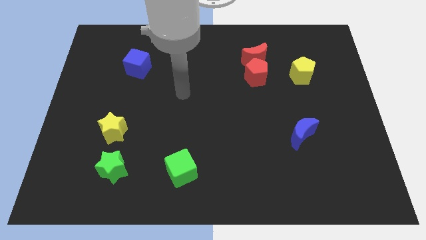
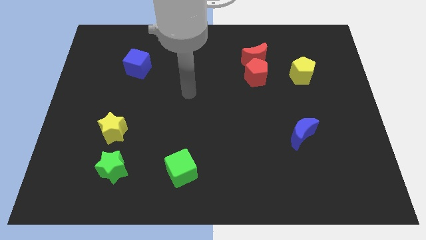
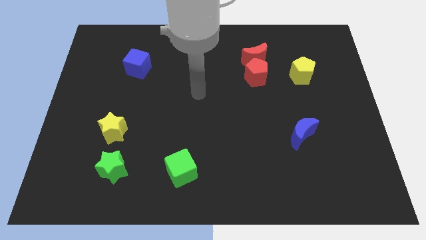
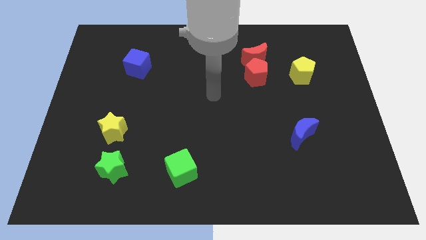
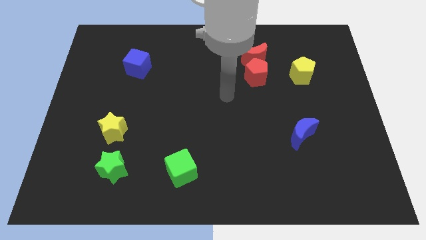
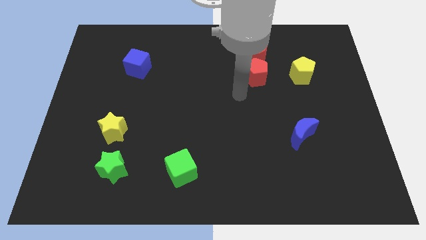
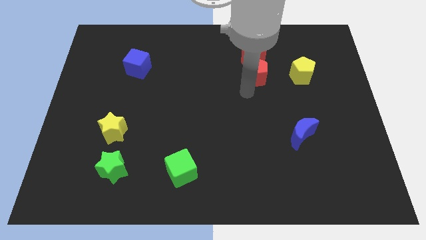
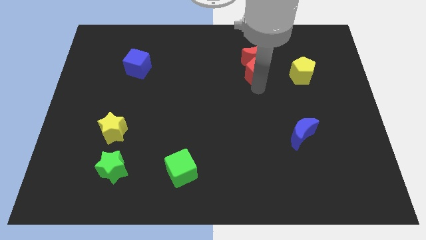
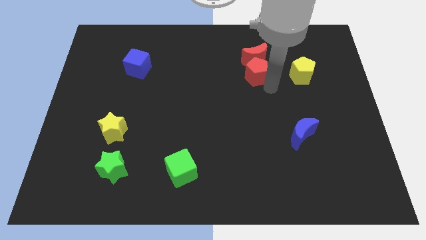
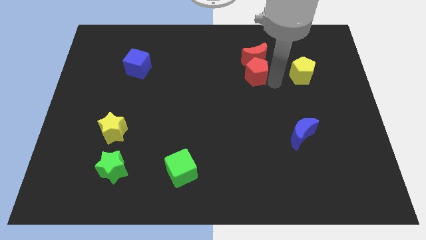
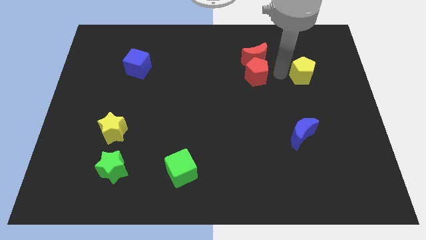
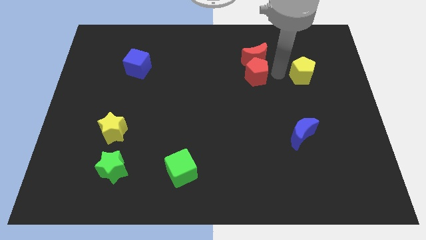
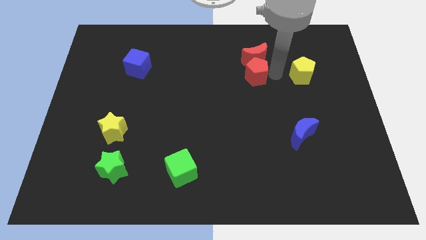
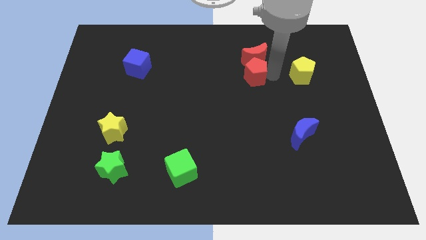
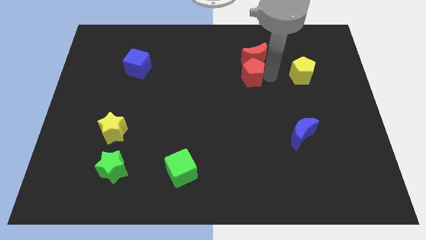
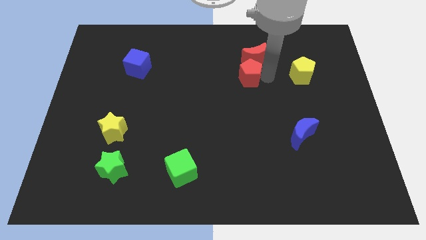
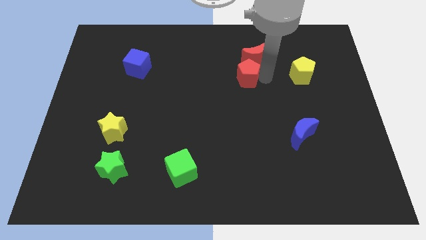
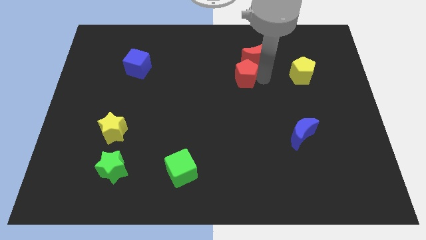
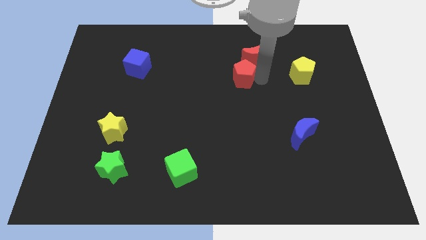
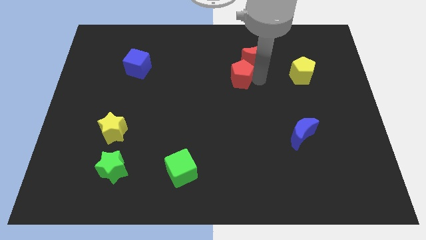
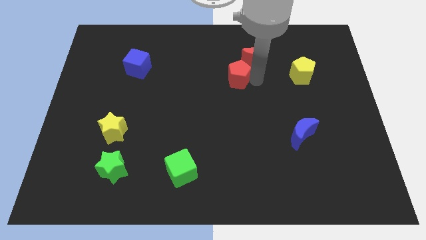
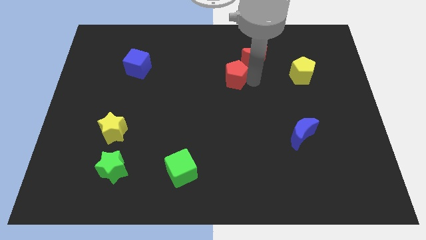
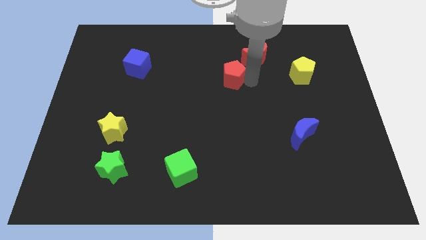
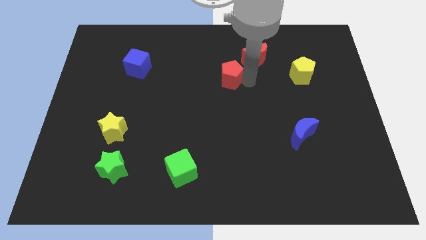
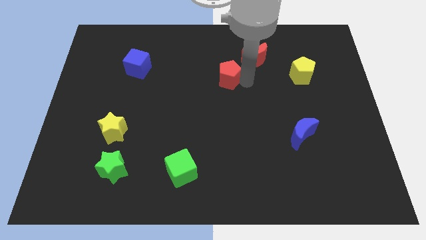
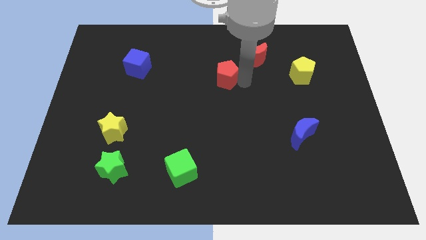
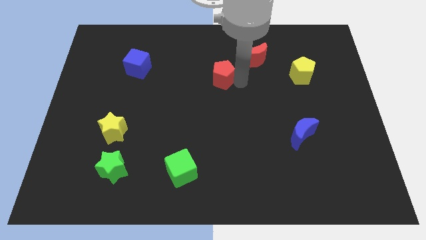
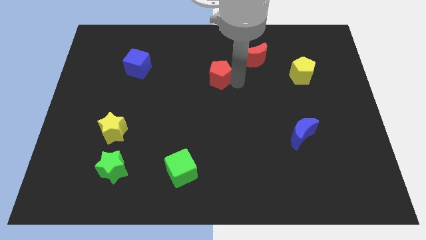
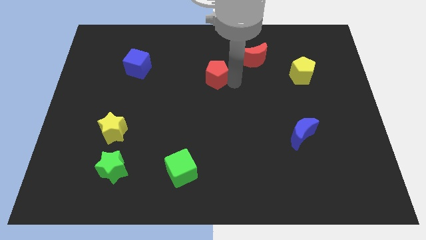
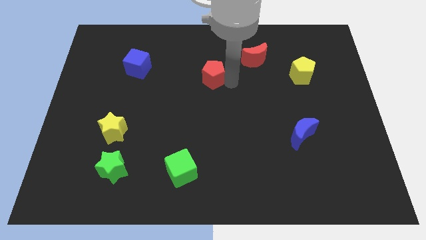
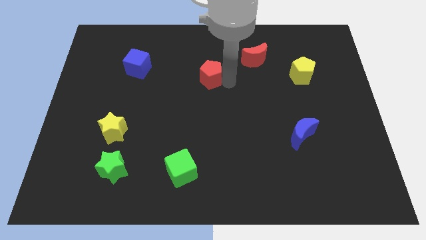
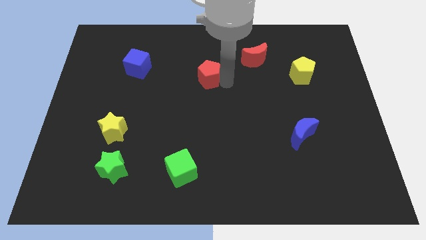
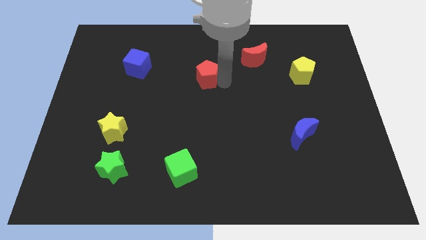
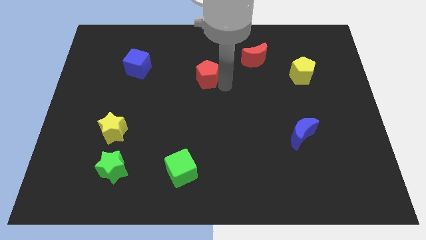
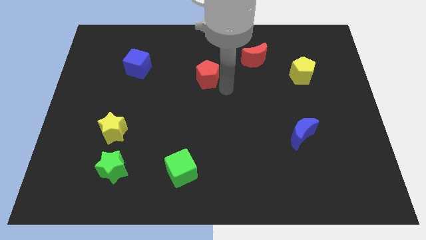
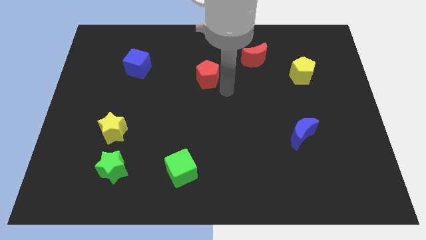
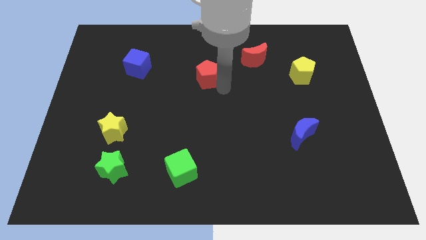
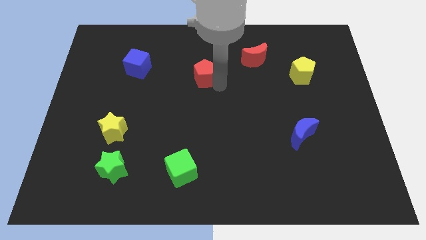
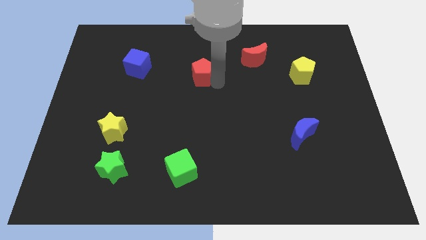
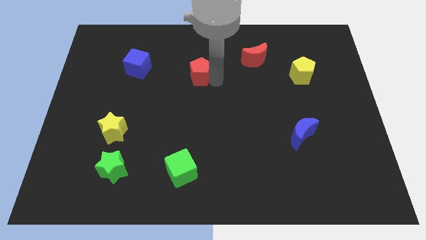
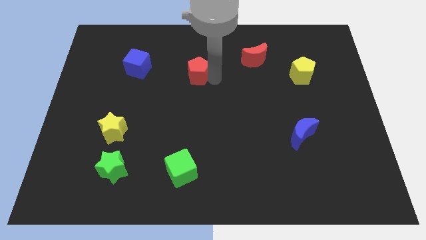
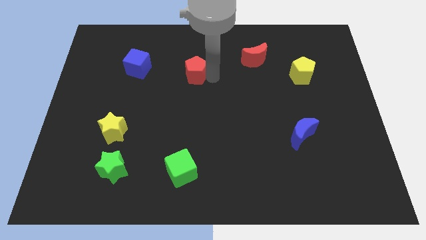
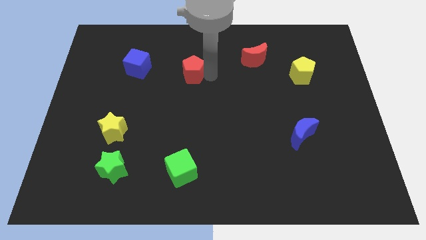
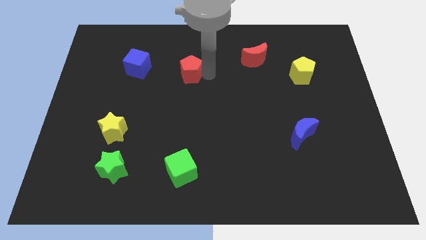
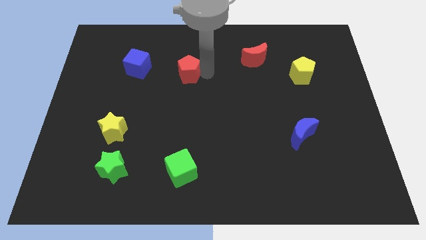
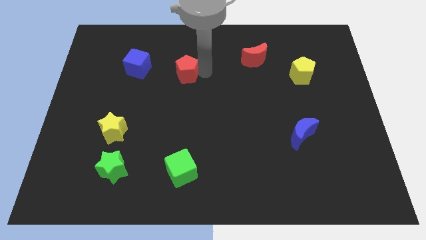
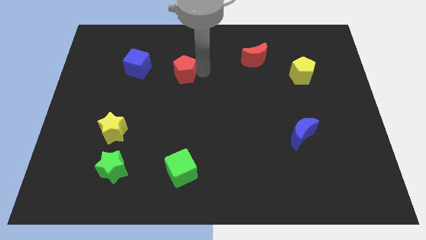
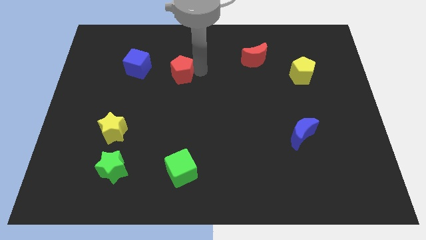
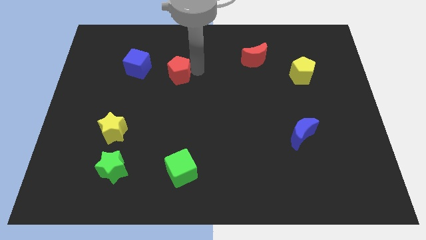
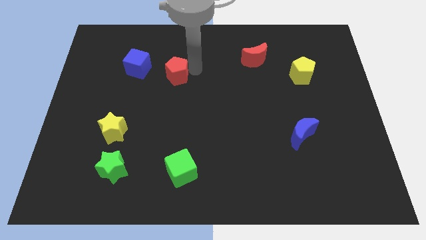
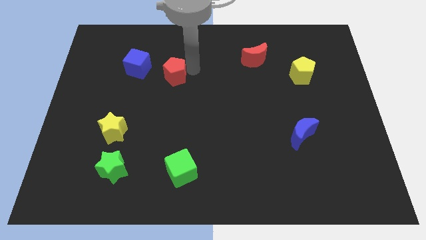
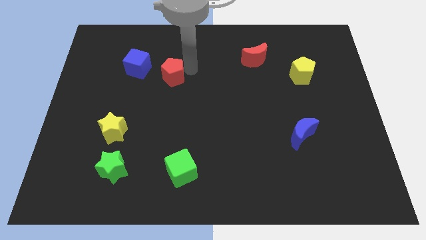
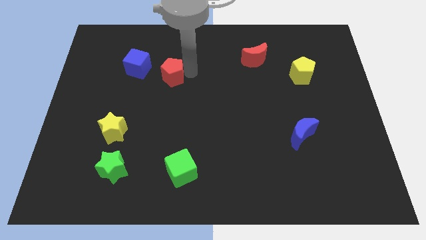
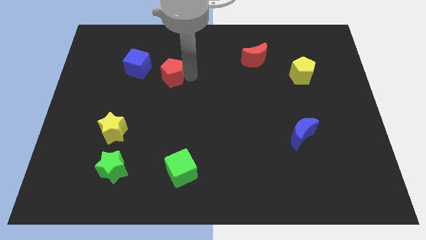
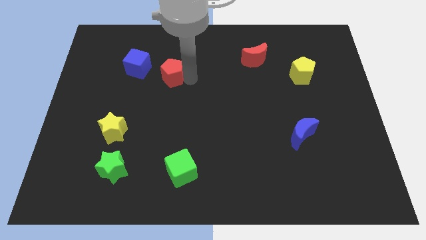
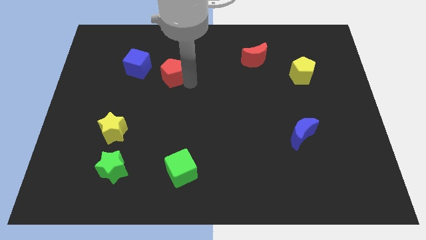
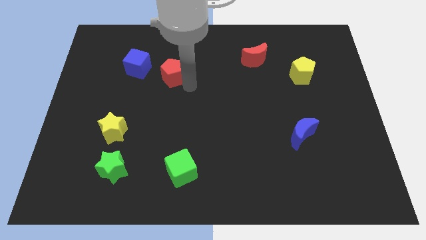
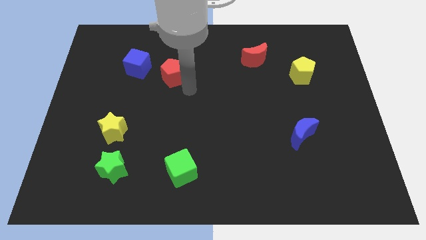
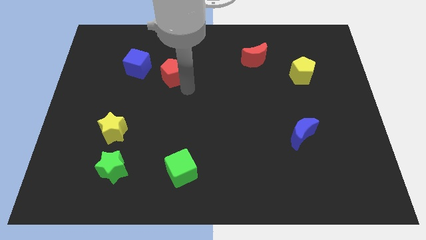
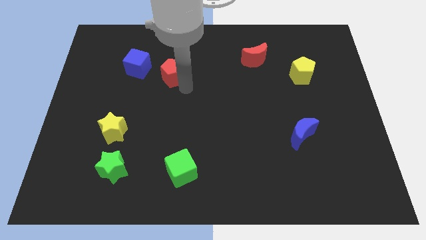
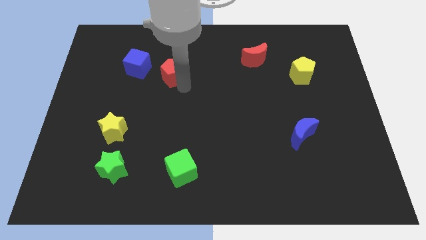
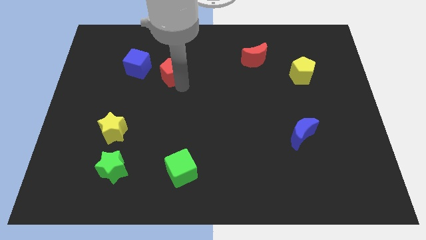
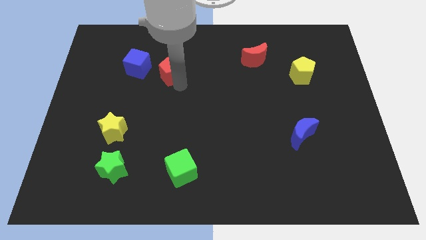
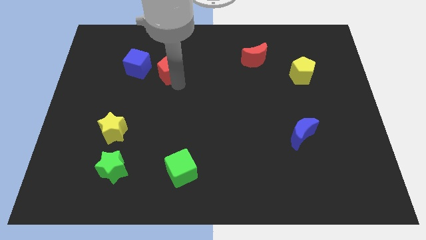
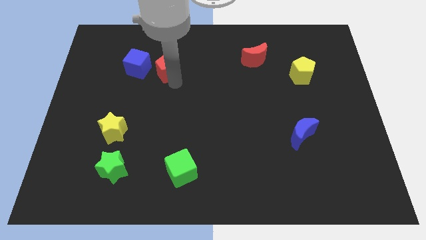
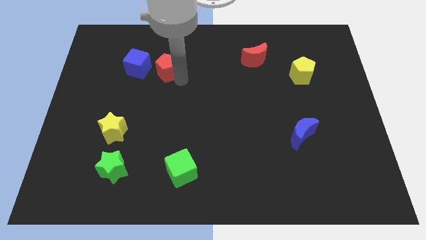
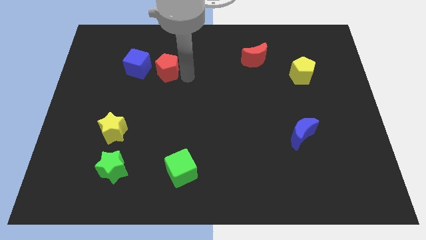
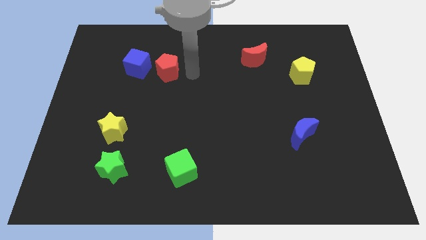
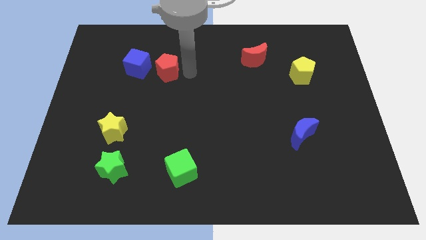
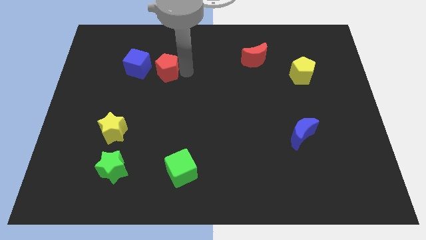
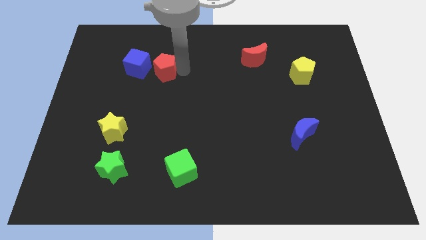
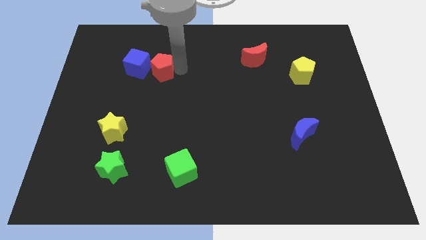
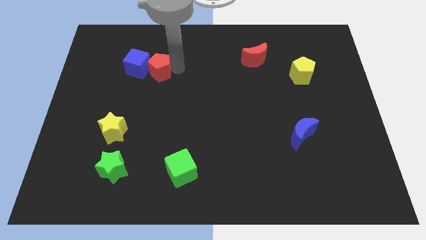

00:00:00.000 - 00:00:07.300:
put the red pentagon to the blue cube

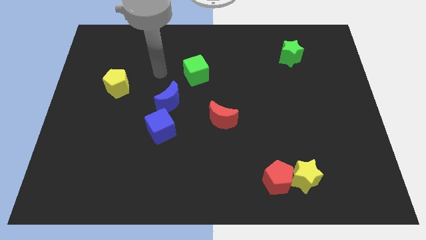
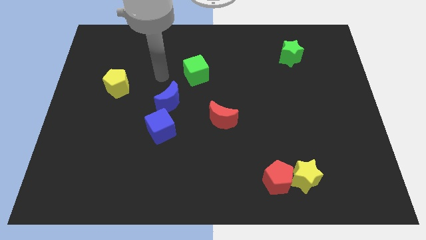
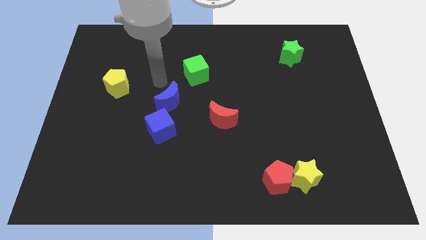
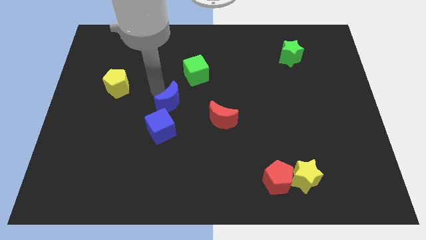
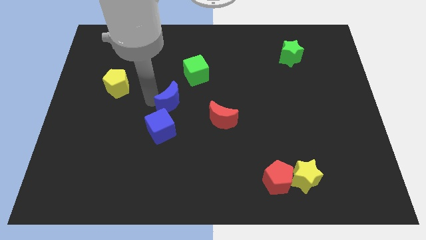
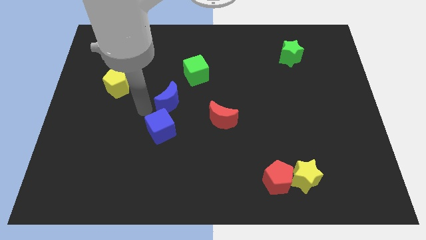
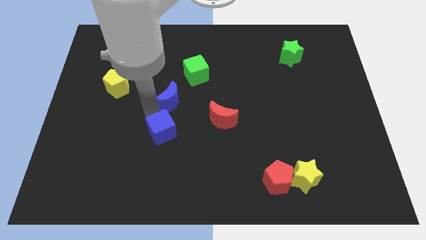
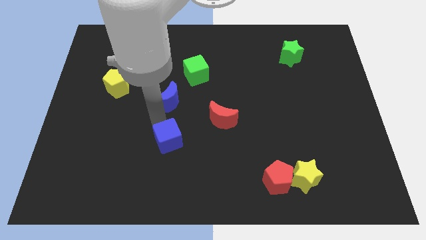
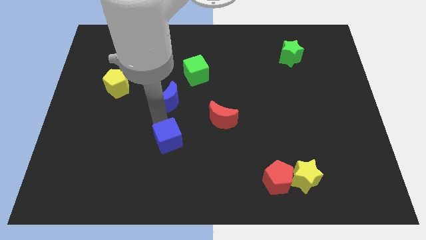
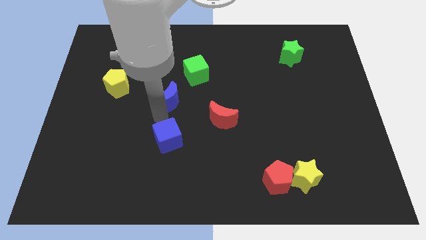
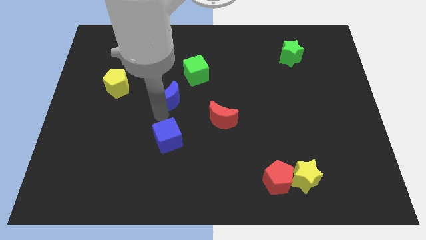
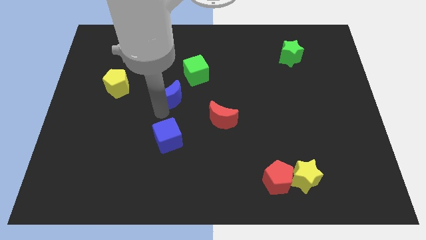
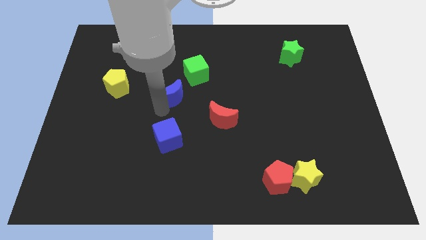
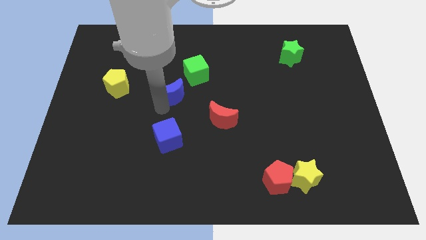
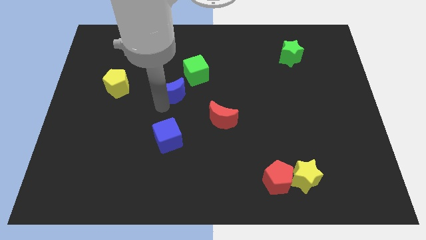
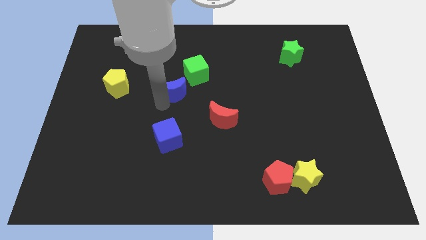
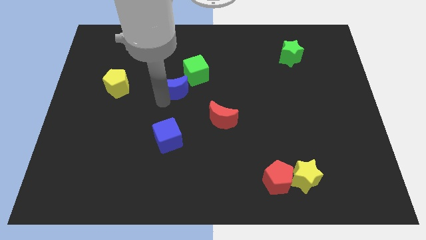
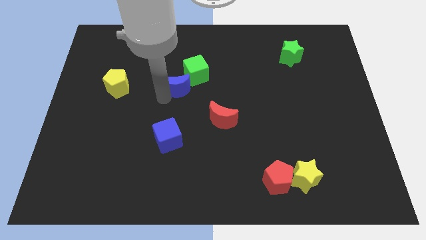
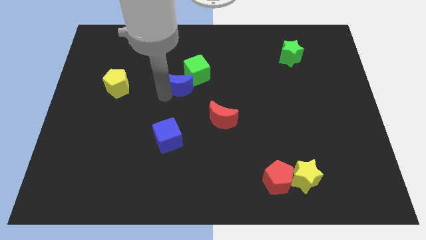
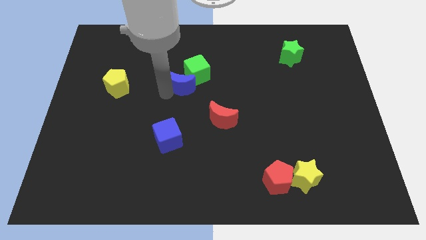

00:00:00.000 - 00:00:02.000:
move the blue moon close to the green cube
